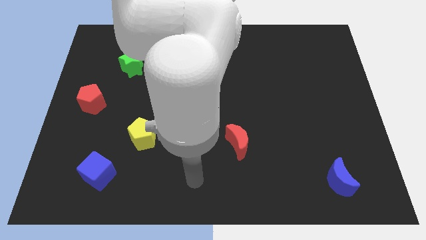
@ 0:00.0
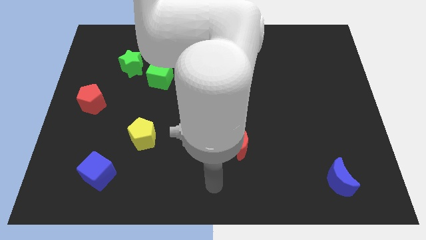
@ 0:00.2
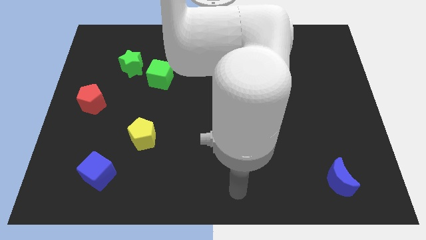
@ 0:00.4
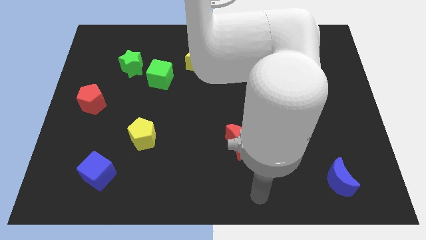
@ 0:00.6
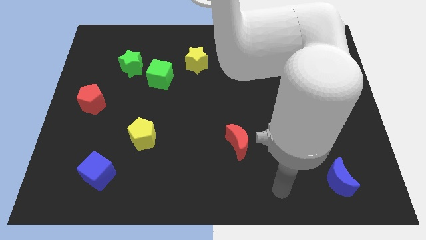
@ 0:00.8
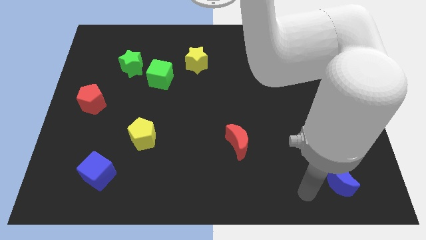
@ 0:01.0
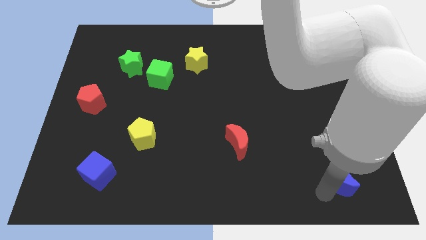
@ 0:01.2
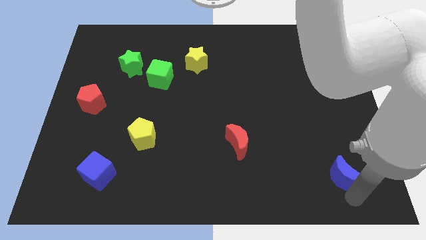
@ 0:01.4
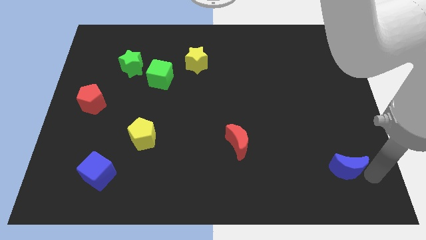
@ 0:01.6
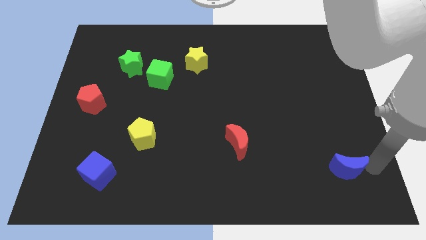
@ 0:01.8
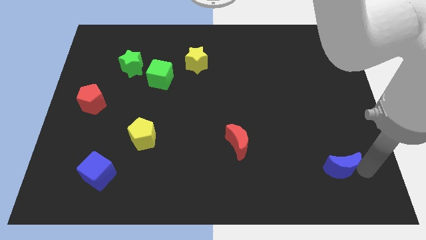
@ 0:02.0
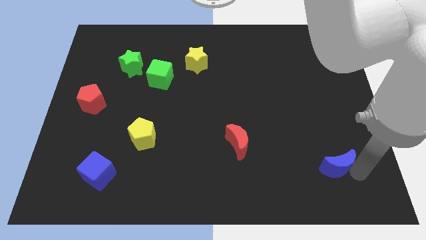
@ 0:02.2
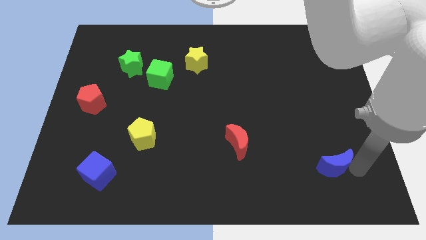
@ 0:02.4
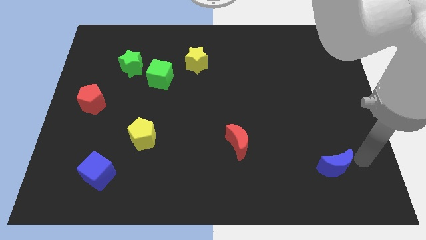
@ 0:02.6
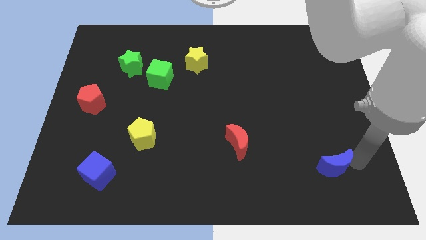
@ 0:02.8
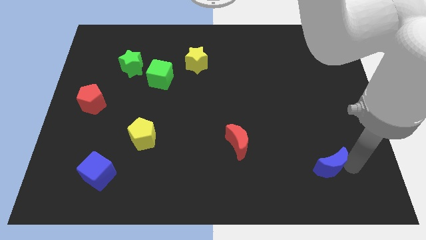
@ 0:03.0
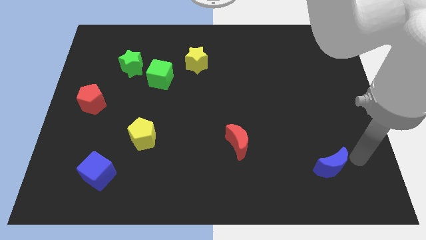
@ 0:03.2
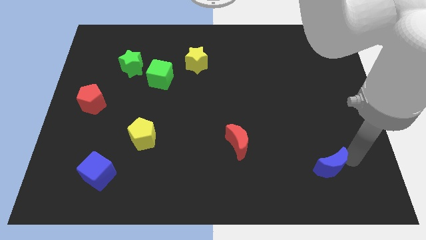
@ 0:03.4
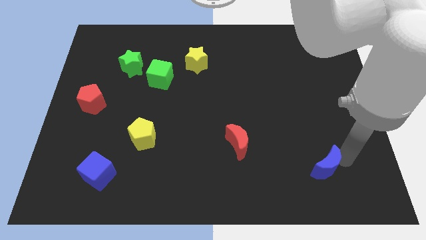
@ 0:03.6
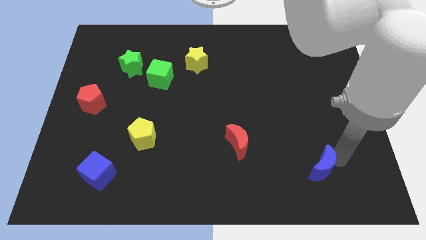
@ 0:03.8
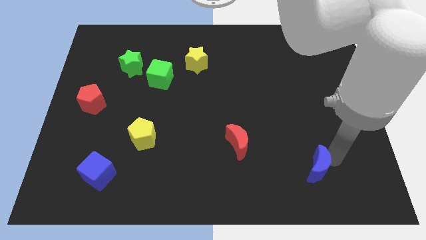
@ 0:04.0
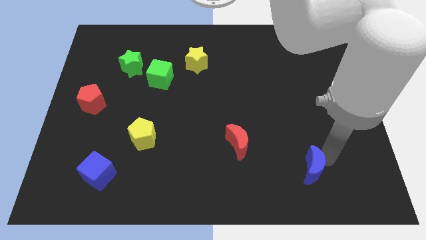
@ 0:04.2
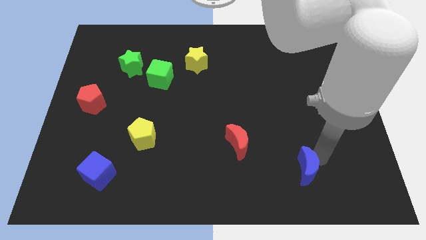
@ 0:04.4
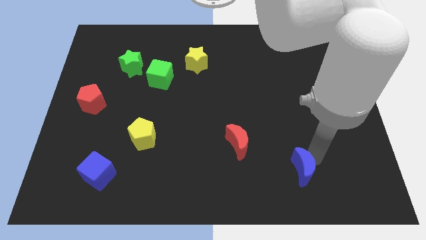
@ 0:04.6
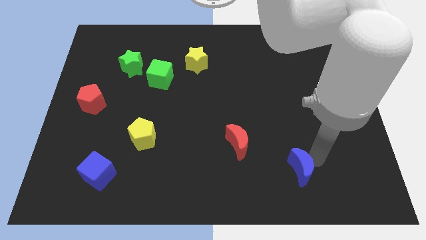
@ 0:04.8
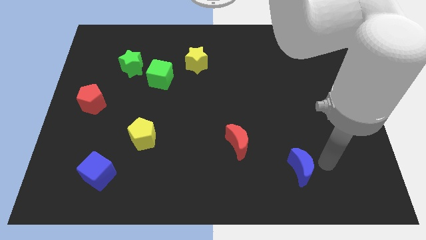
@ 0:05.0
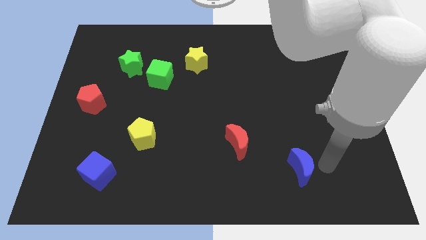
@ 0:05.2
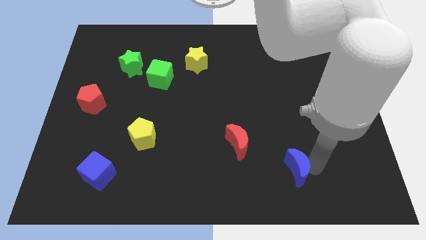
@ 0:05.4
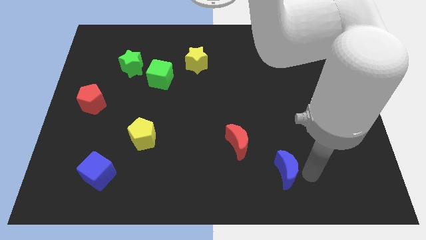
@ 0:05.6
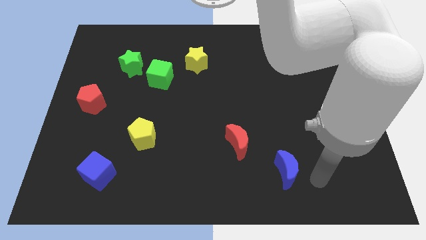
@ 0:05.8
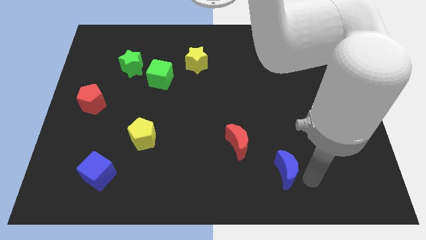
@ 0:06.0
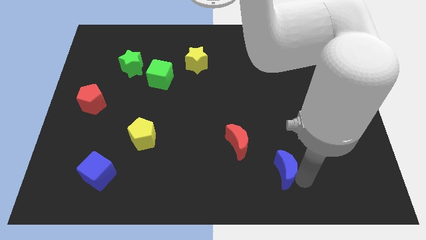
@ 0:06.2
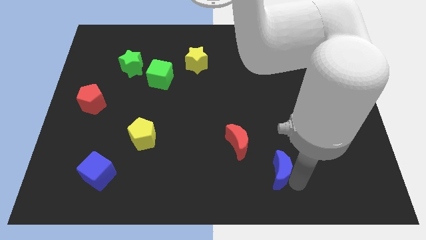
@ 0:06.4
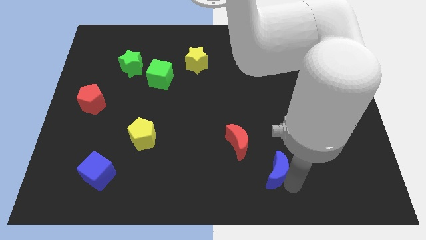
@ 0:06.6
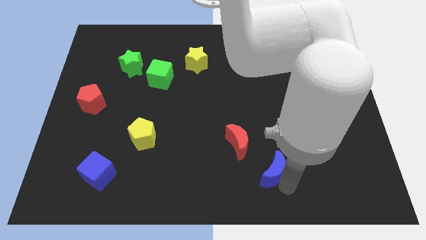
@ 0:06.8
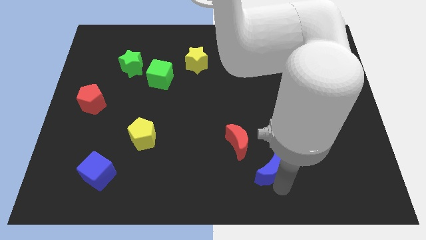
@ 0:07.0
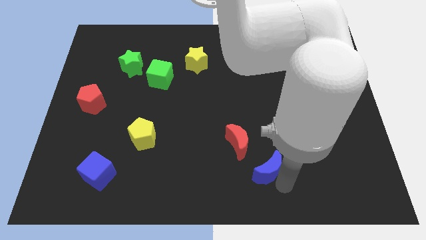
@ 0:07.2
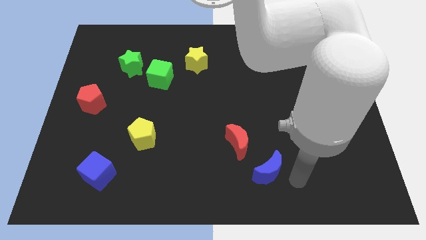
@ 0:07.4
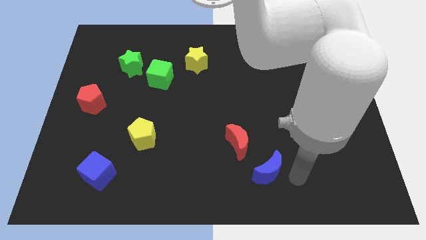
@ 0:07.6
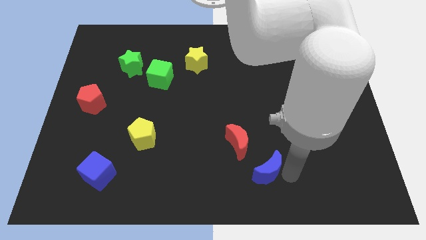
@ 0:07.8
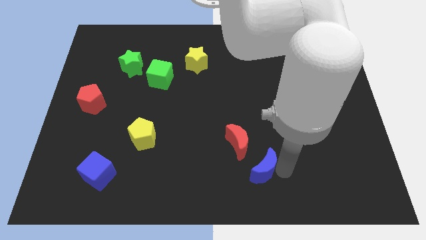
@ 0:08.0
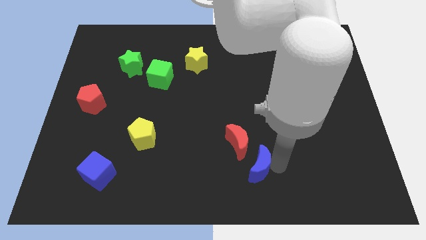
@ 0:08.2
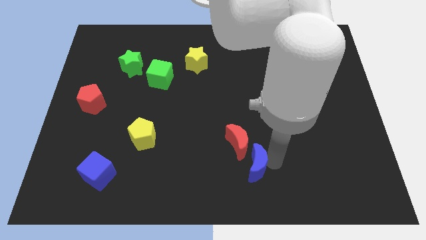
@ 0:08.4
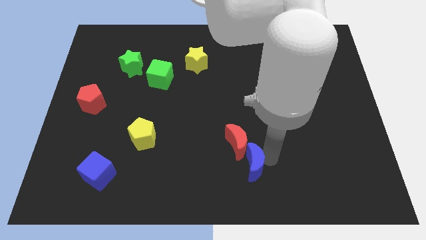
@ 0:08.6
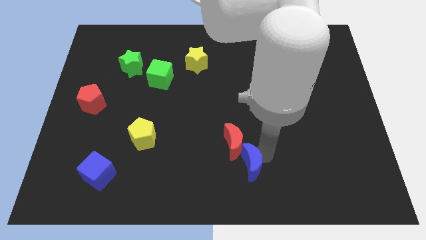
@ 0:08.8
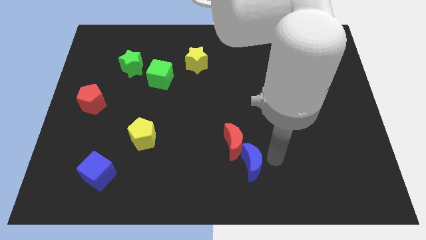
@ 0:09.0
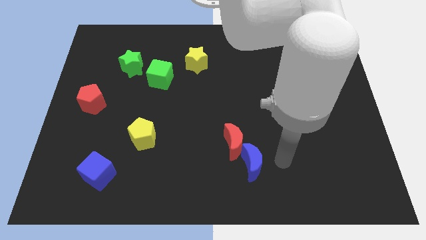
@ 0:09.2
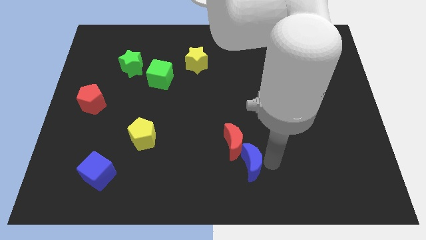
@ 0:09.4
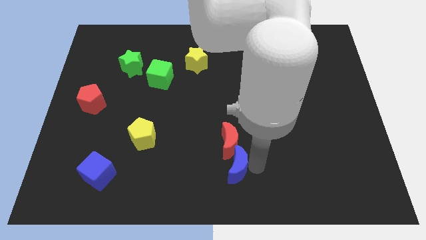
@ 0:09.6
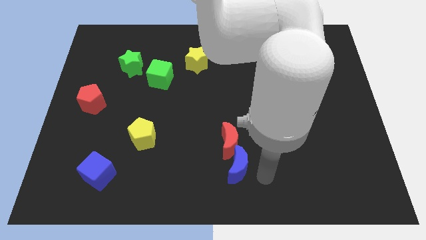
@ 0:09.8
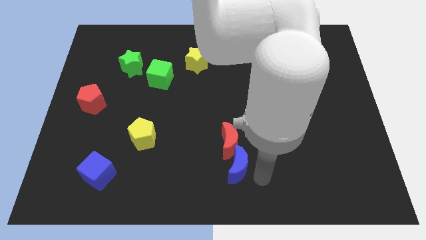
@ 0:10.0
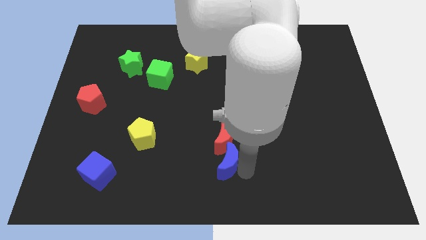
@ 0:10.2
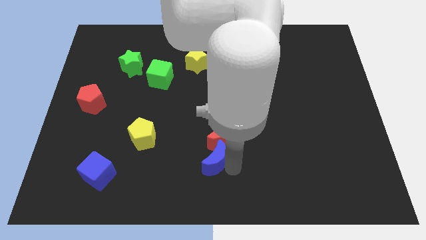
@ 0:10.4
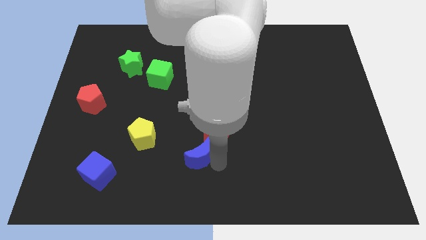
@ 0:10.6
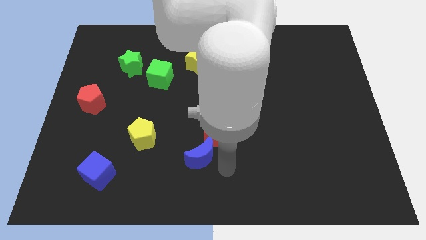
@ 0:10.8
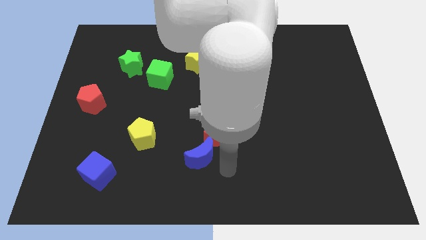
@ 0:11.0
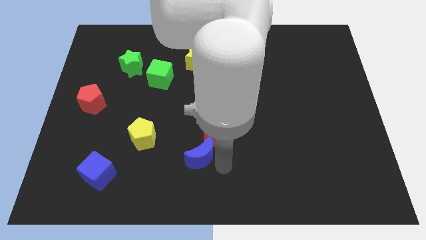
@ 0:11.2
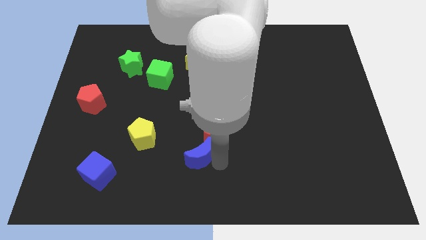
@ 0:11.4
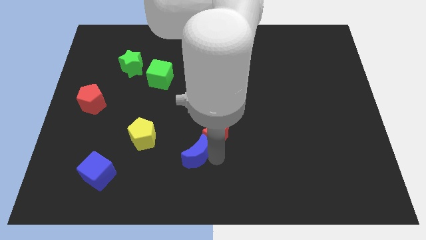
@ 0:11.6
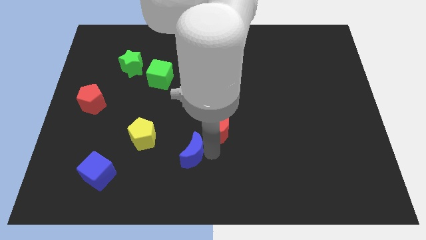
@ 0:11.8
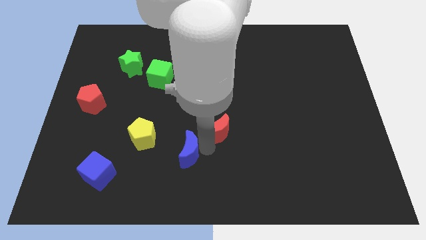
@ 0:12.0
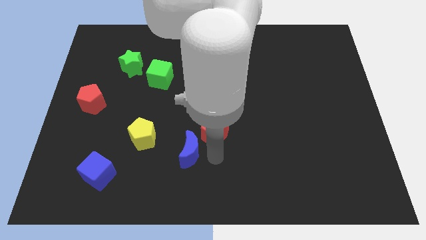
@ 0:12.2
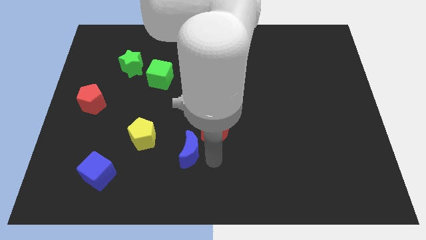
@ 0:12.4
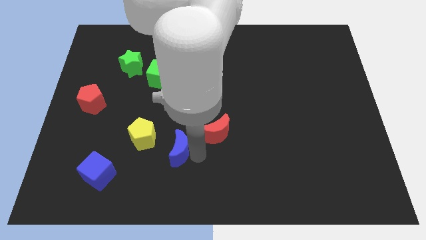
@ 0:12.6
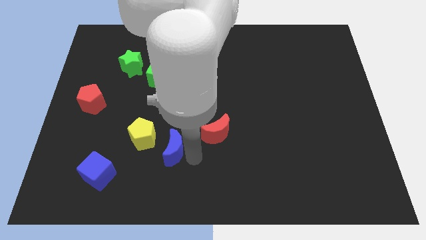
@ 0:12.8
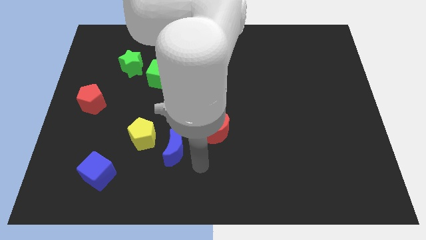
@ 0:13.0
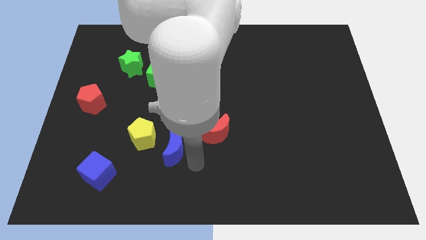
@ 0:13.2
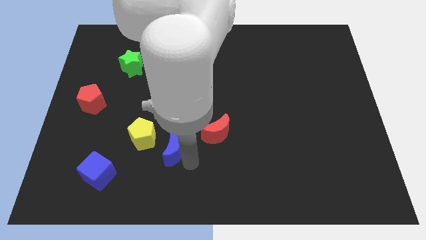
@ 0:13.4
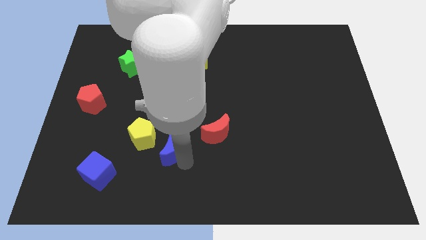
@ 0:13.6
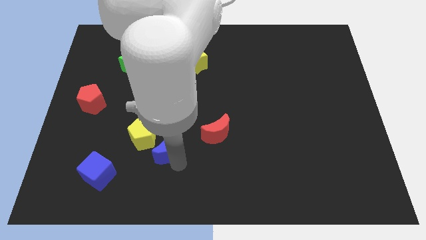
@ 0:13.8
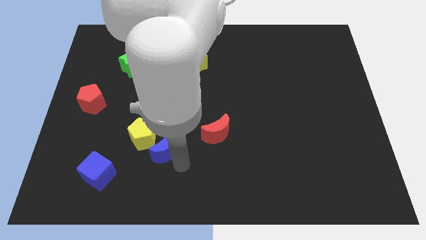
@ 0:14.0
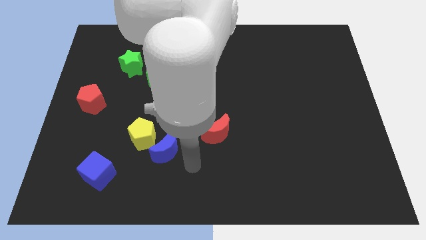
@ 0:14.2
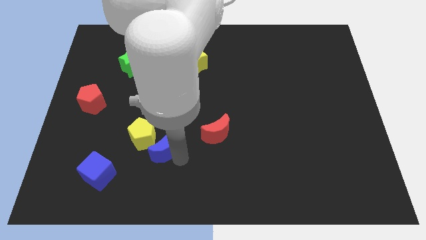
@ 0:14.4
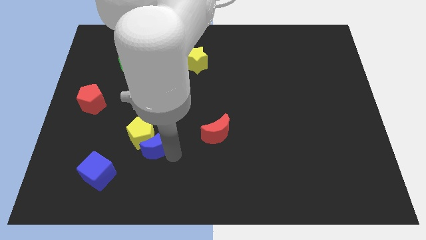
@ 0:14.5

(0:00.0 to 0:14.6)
slide the blue moon close to the yellow pentagon
